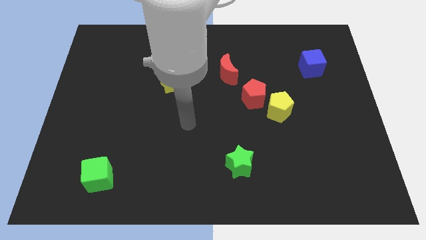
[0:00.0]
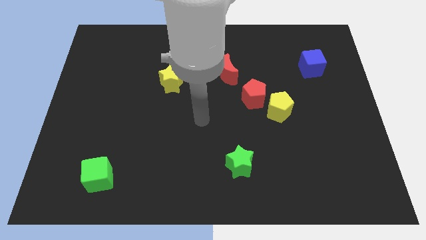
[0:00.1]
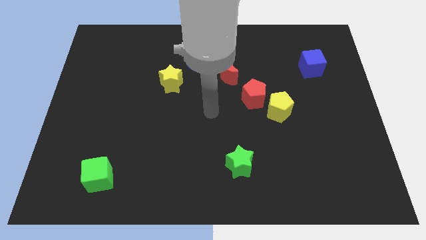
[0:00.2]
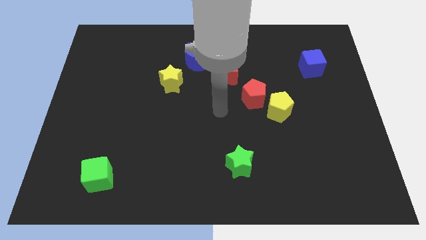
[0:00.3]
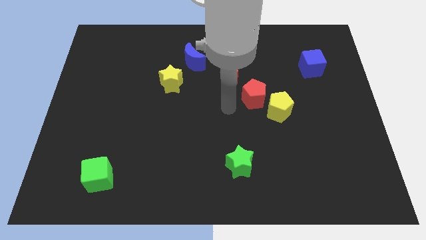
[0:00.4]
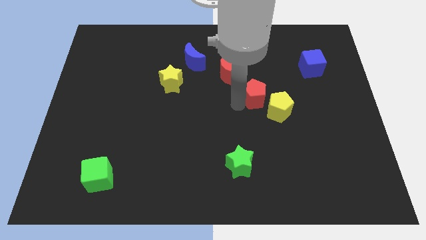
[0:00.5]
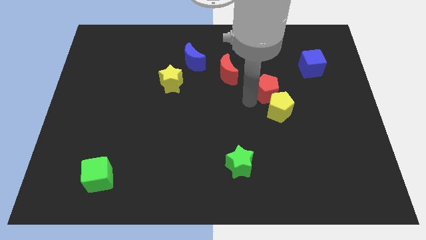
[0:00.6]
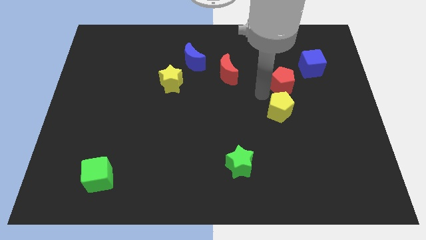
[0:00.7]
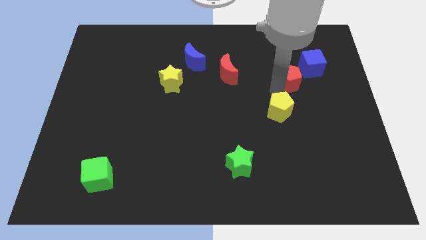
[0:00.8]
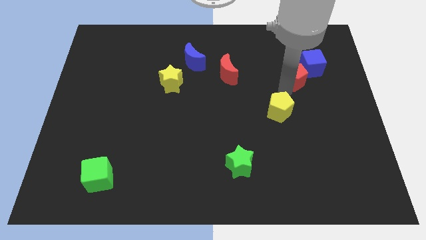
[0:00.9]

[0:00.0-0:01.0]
pull the yellow pentagon apart from the red pentagon

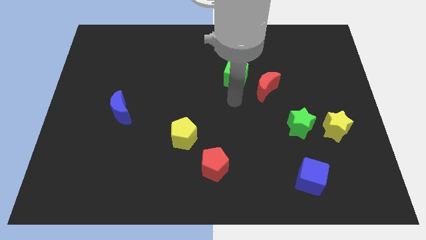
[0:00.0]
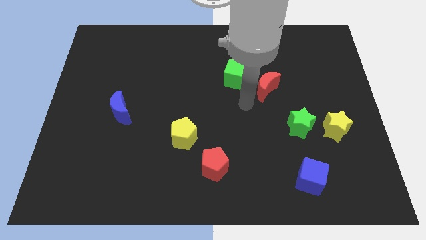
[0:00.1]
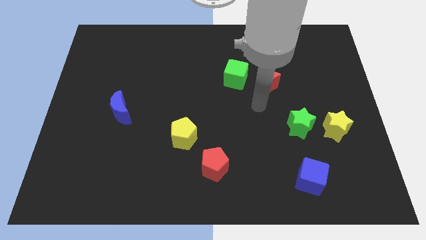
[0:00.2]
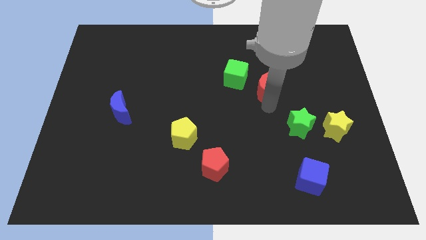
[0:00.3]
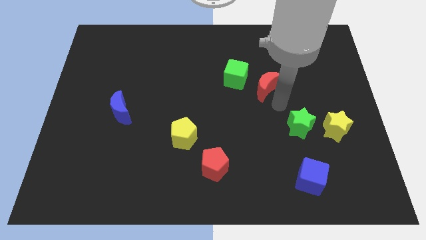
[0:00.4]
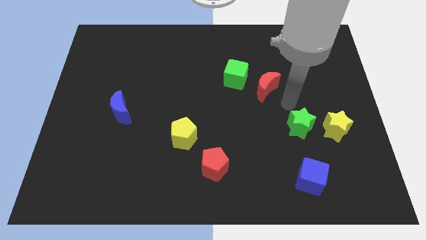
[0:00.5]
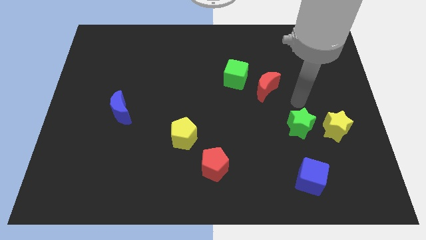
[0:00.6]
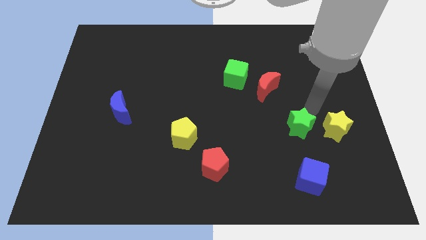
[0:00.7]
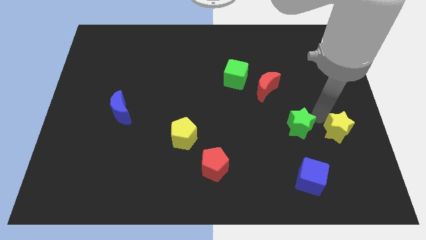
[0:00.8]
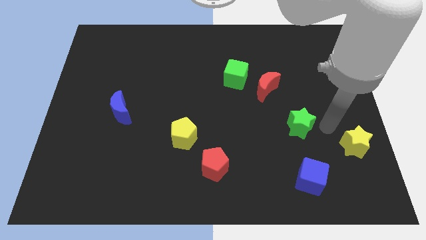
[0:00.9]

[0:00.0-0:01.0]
separate the green star from the yellow star

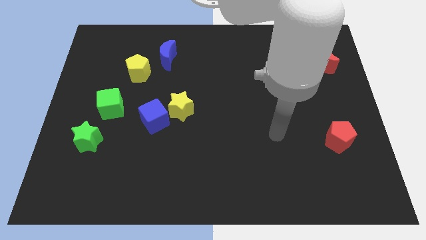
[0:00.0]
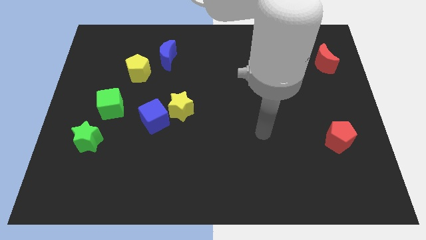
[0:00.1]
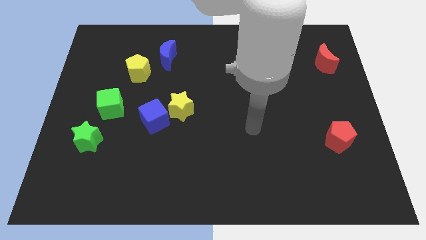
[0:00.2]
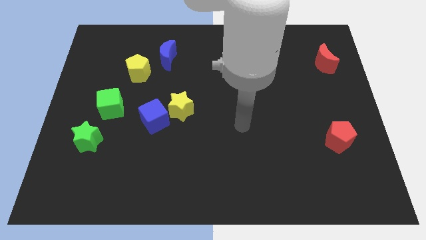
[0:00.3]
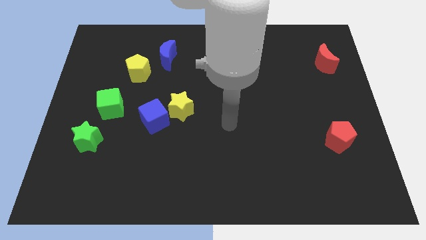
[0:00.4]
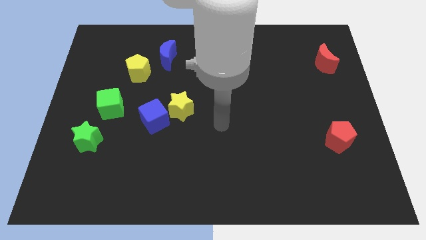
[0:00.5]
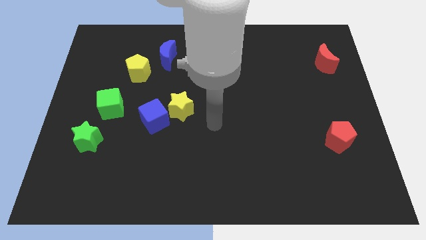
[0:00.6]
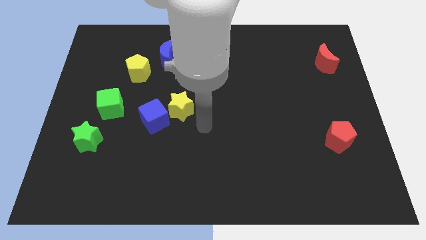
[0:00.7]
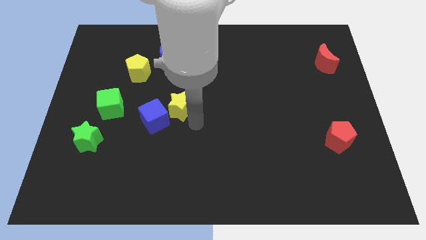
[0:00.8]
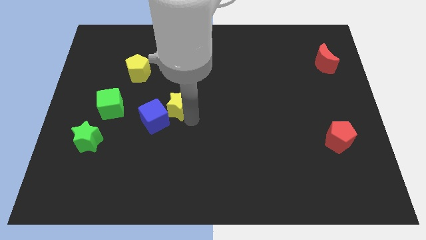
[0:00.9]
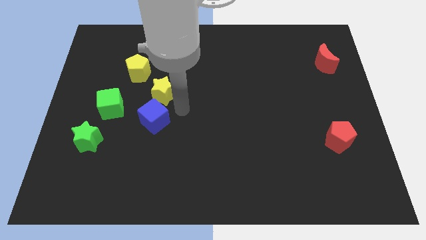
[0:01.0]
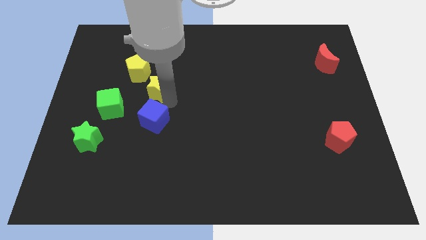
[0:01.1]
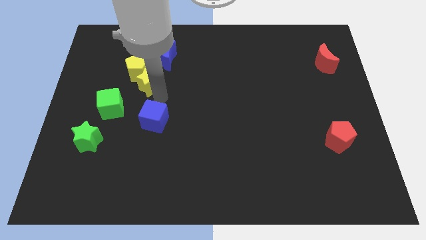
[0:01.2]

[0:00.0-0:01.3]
move the blue cube away from the yellow star

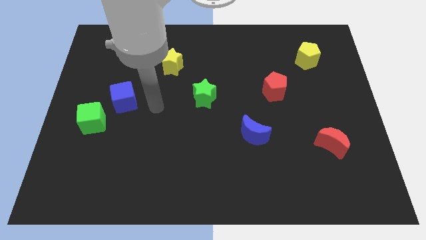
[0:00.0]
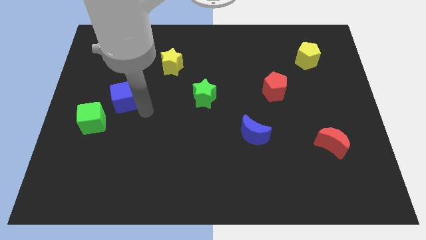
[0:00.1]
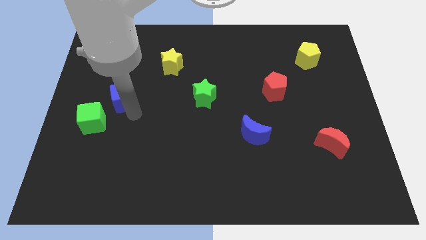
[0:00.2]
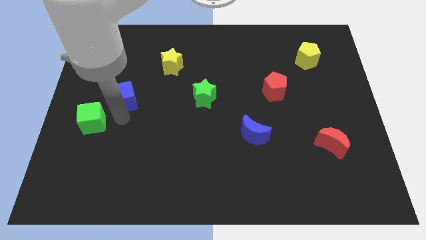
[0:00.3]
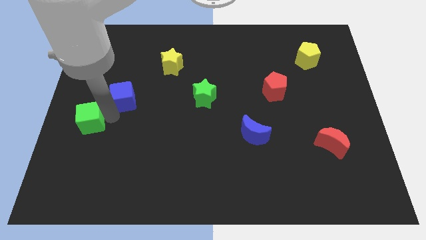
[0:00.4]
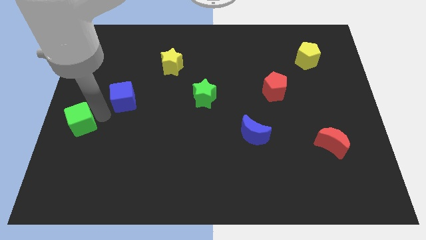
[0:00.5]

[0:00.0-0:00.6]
separate the blue cube from the green cube

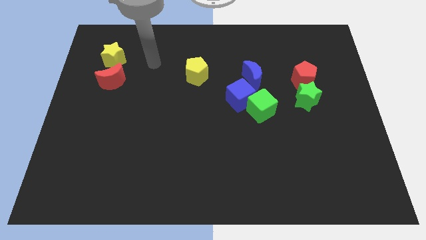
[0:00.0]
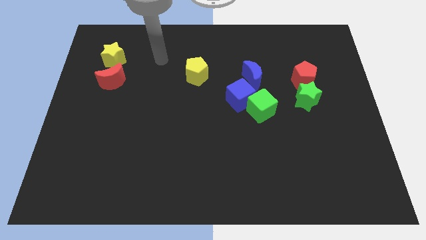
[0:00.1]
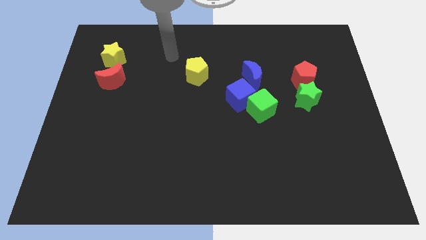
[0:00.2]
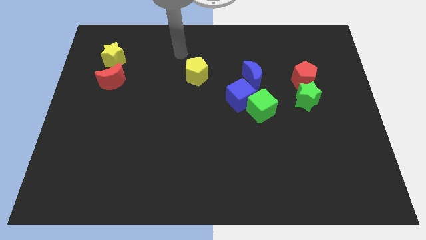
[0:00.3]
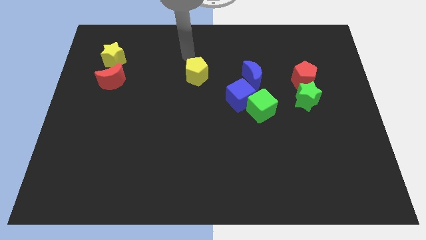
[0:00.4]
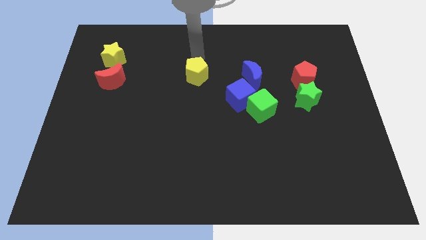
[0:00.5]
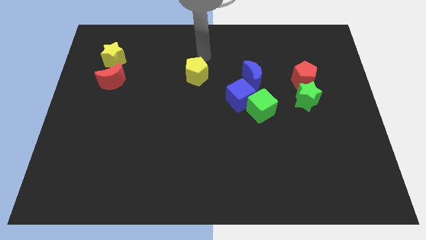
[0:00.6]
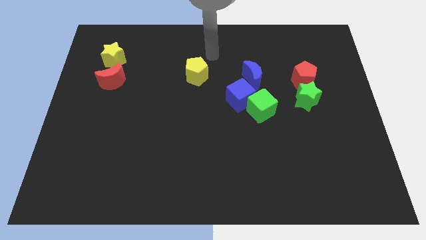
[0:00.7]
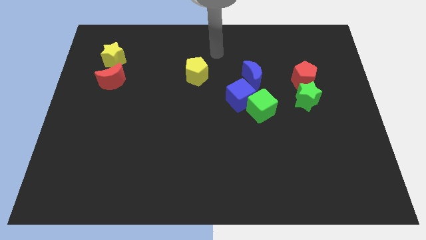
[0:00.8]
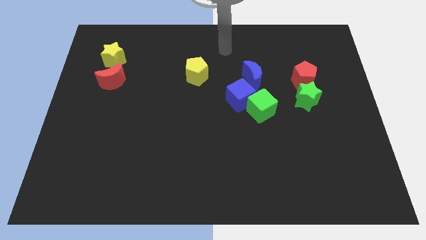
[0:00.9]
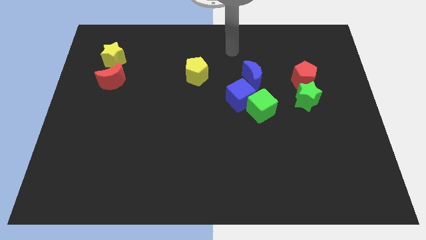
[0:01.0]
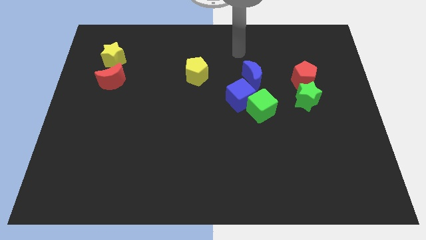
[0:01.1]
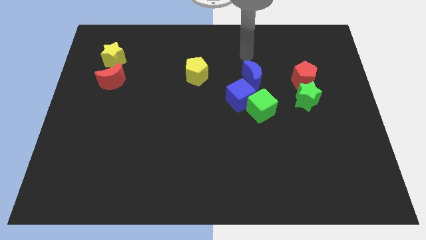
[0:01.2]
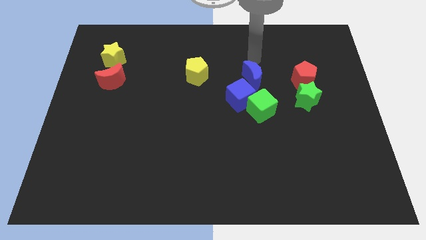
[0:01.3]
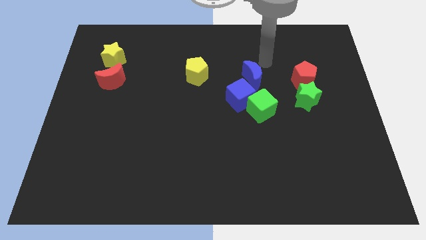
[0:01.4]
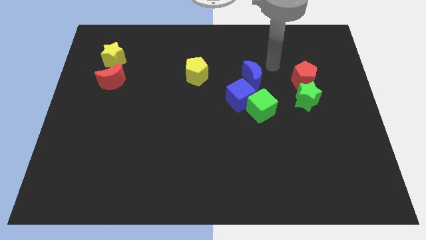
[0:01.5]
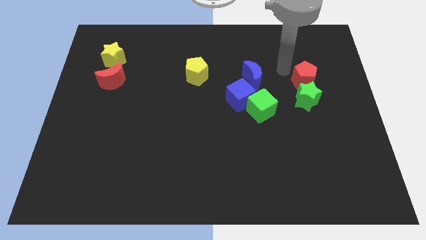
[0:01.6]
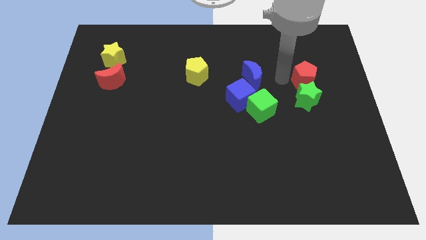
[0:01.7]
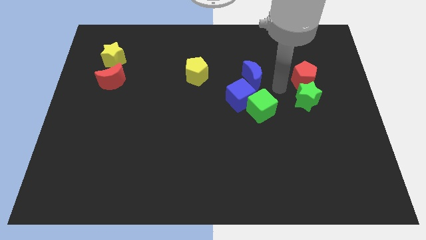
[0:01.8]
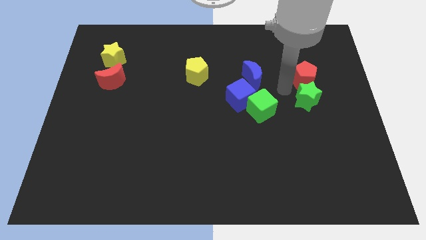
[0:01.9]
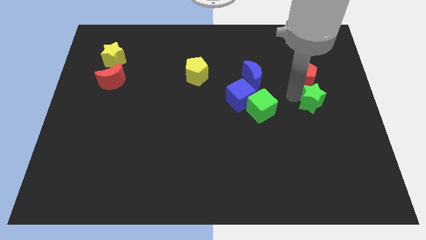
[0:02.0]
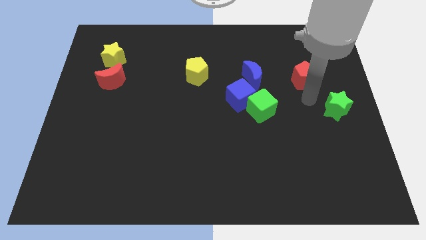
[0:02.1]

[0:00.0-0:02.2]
move the red pentagon away from the green star

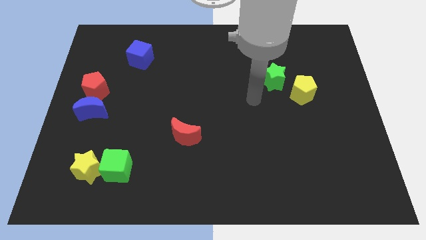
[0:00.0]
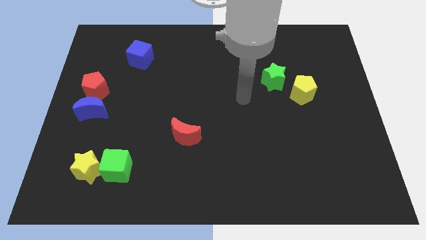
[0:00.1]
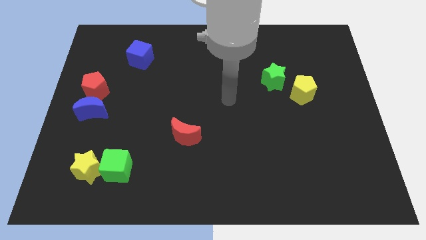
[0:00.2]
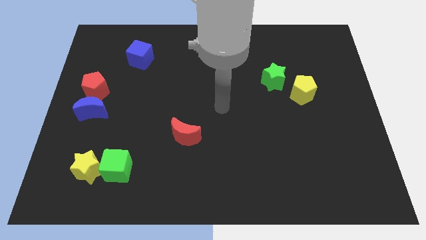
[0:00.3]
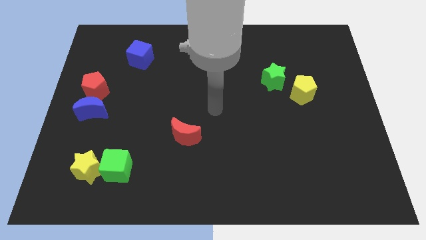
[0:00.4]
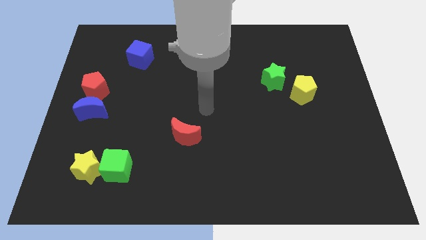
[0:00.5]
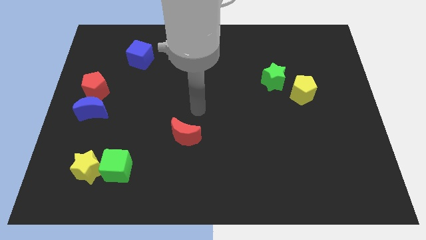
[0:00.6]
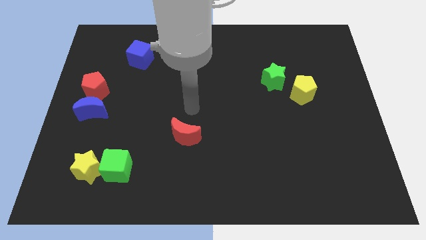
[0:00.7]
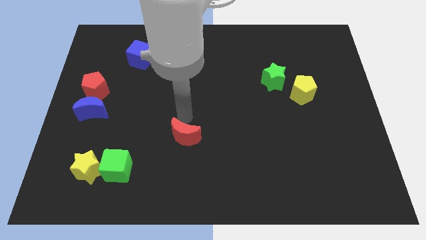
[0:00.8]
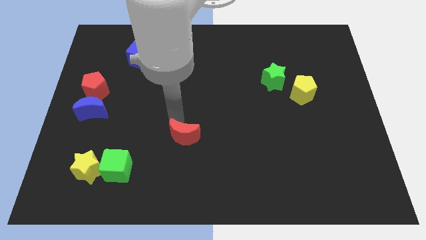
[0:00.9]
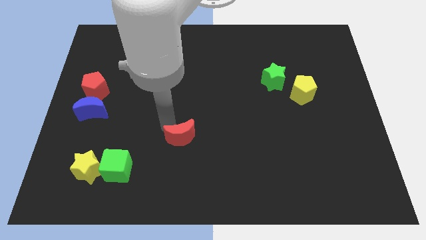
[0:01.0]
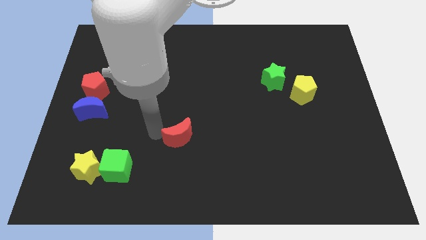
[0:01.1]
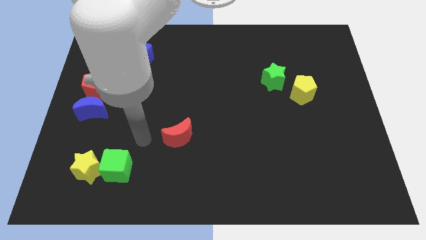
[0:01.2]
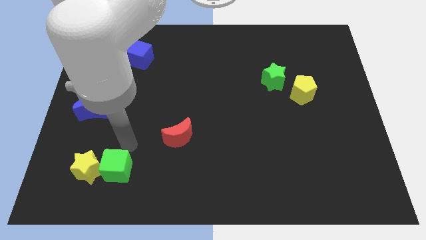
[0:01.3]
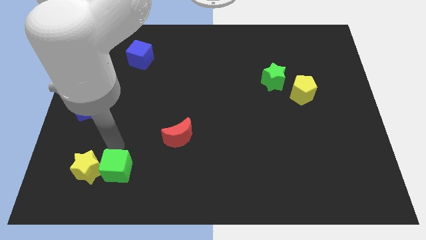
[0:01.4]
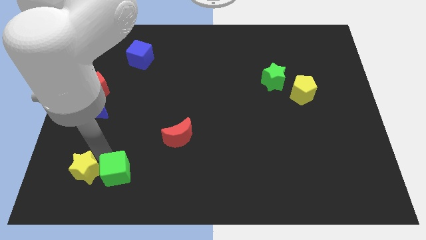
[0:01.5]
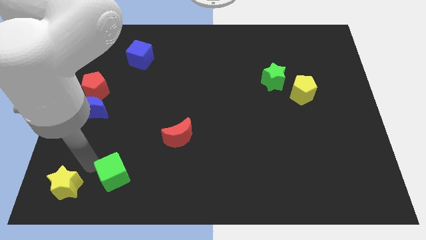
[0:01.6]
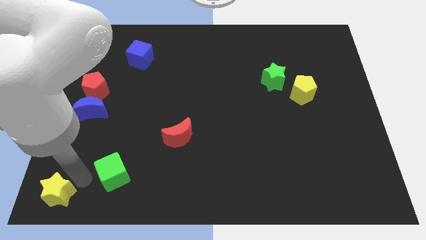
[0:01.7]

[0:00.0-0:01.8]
move the green cube away from the yellow star

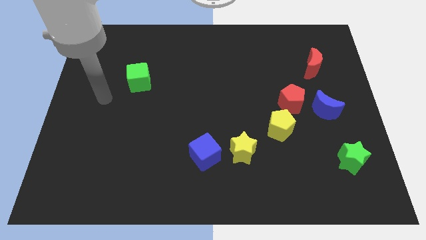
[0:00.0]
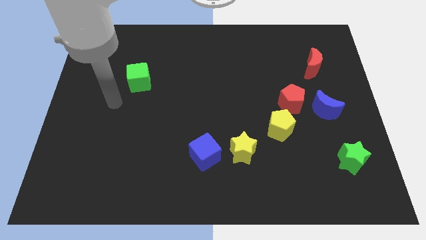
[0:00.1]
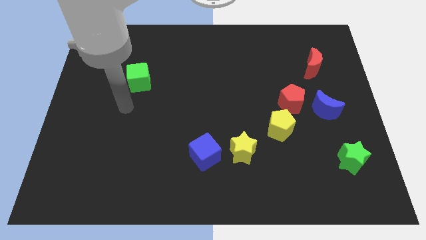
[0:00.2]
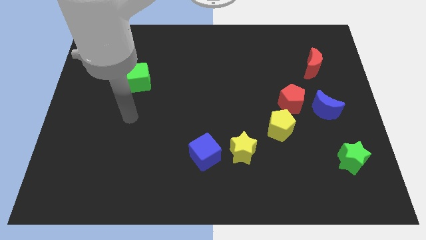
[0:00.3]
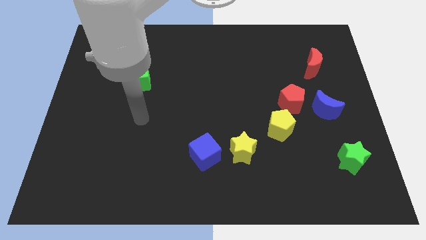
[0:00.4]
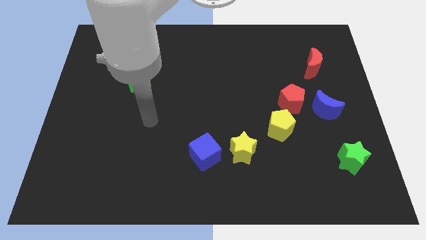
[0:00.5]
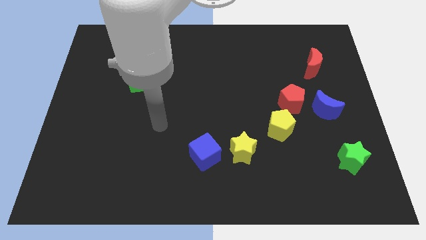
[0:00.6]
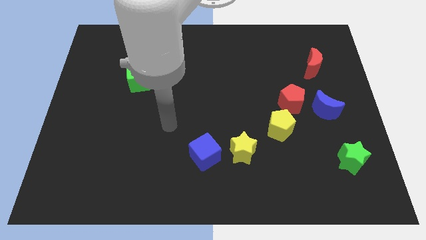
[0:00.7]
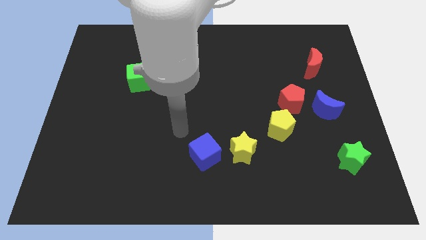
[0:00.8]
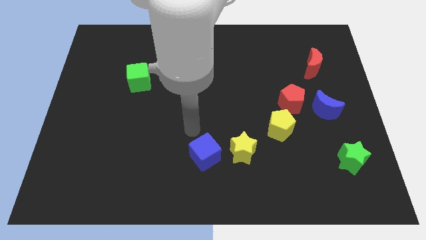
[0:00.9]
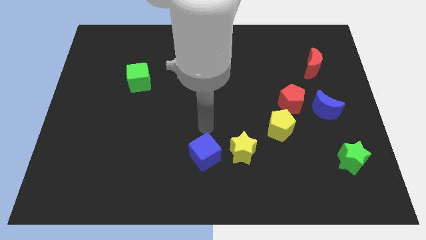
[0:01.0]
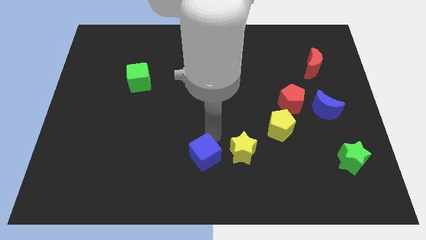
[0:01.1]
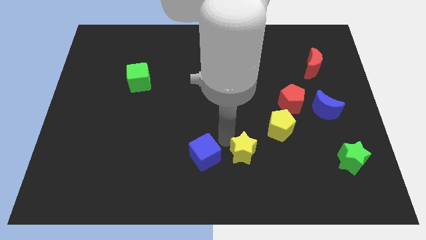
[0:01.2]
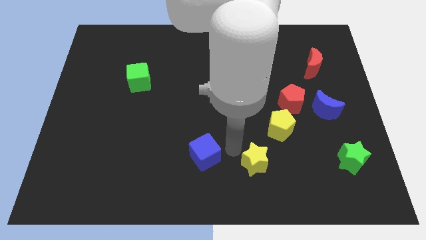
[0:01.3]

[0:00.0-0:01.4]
separate the blue cube from the yellow star
